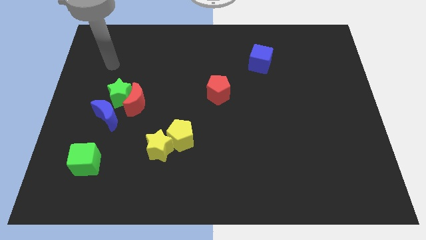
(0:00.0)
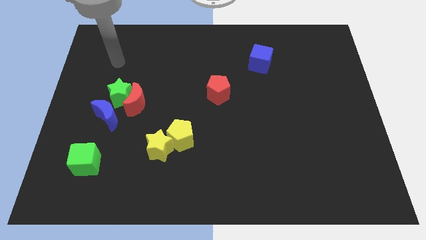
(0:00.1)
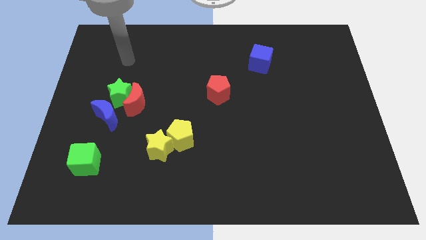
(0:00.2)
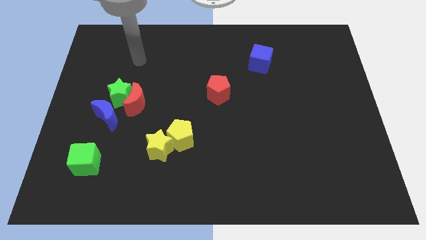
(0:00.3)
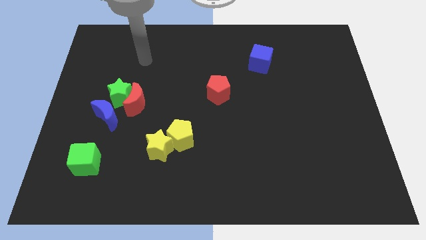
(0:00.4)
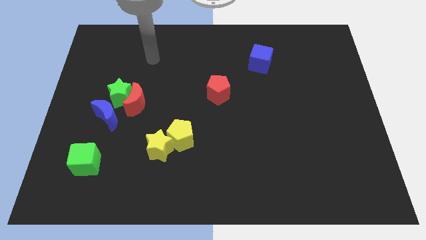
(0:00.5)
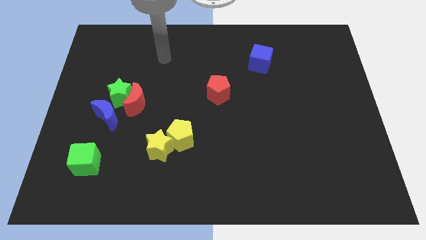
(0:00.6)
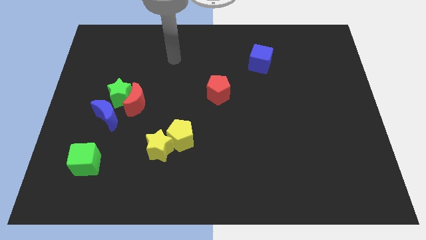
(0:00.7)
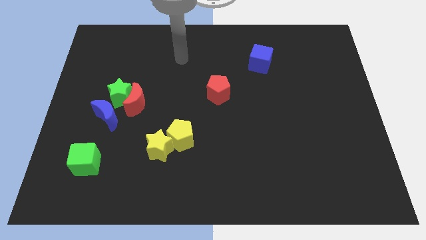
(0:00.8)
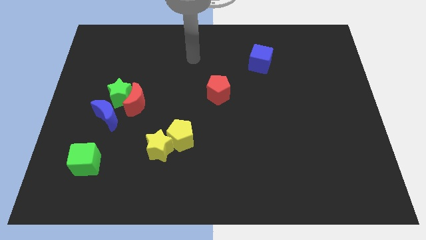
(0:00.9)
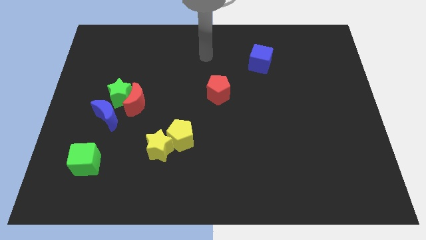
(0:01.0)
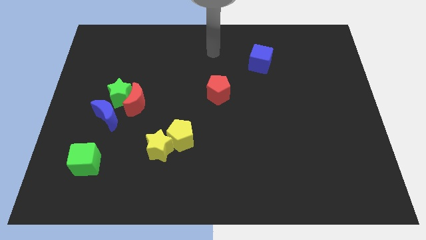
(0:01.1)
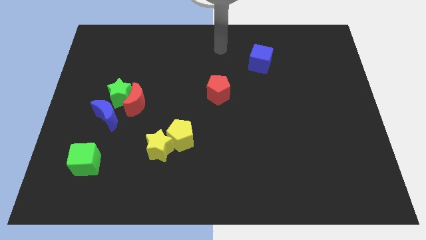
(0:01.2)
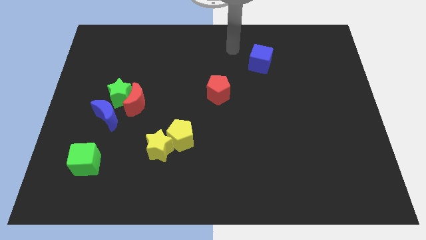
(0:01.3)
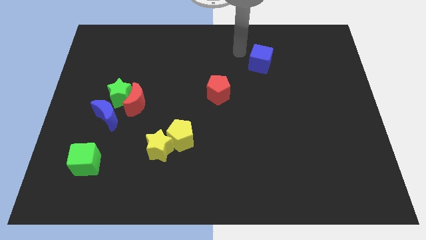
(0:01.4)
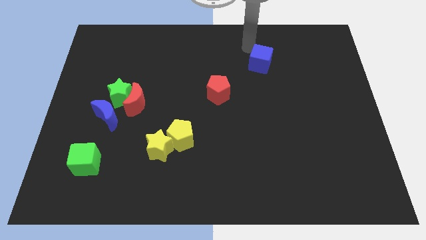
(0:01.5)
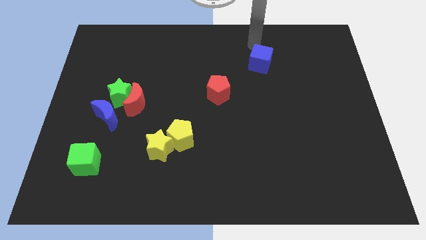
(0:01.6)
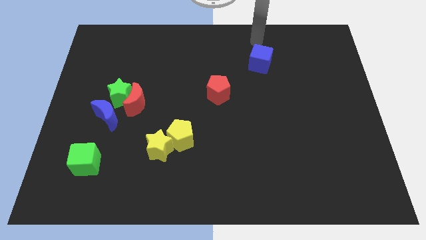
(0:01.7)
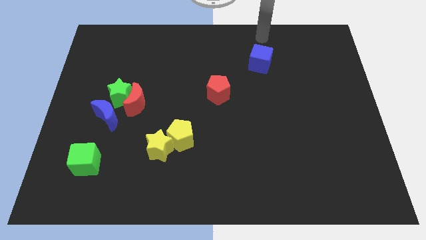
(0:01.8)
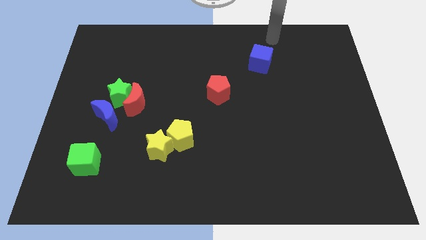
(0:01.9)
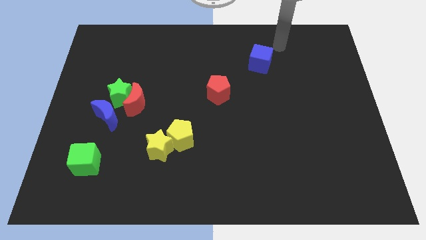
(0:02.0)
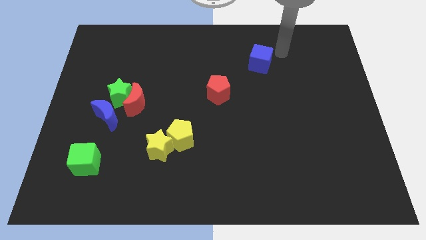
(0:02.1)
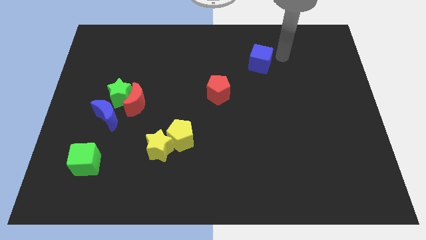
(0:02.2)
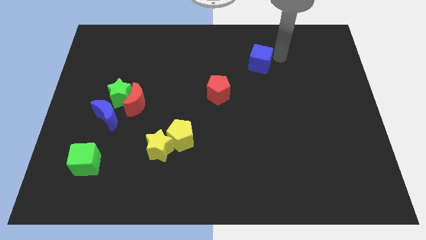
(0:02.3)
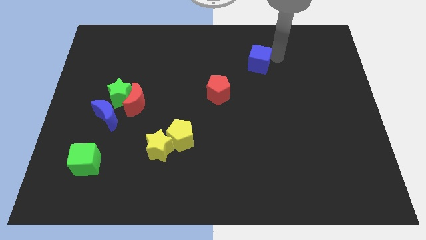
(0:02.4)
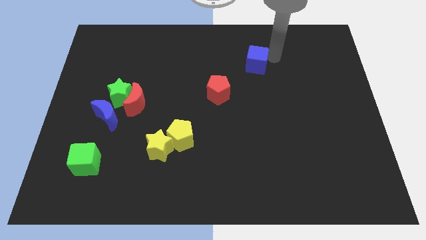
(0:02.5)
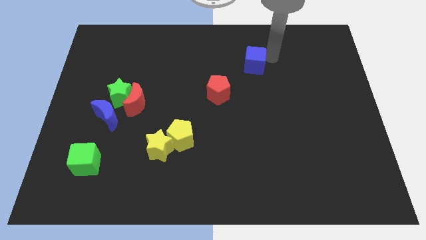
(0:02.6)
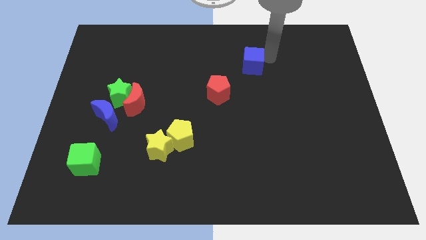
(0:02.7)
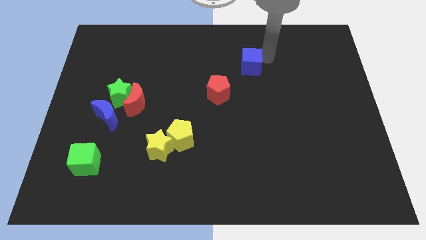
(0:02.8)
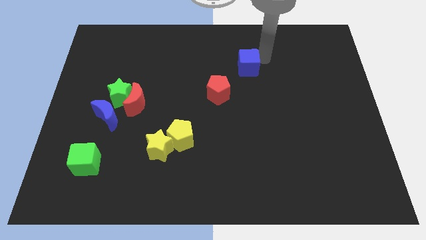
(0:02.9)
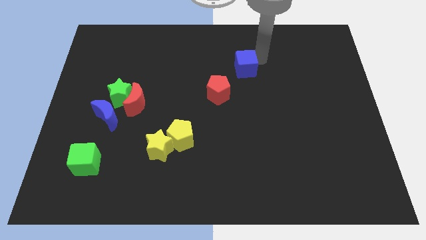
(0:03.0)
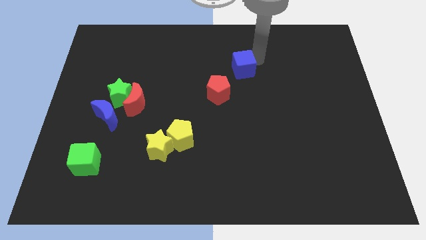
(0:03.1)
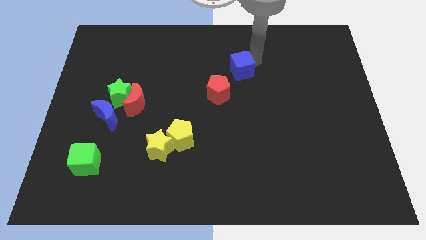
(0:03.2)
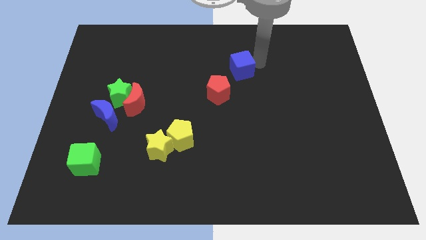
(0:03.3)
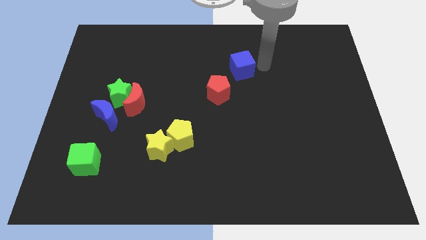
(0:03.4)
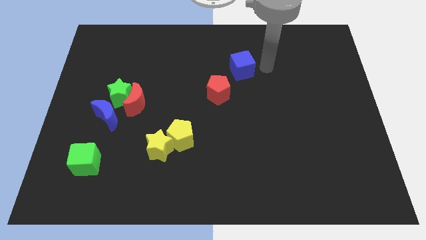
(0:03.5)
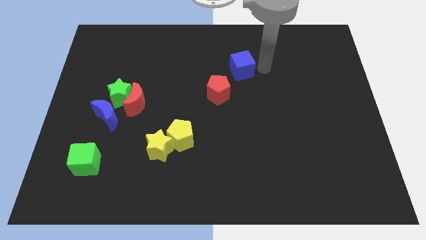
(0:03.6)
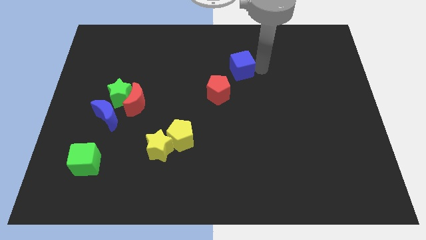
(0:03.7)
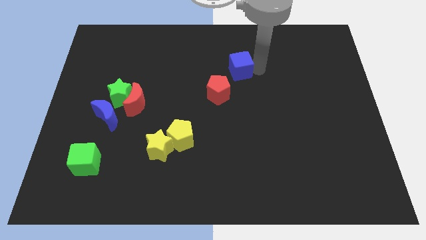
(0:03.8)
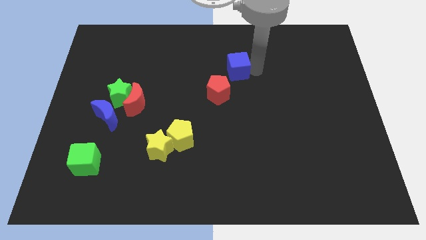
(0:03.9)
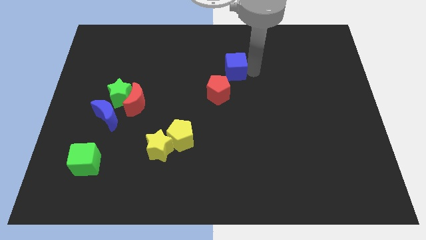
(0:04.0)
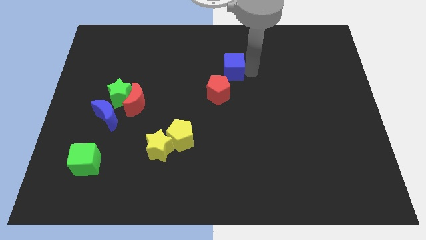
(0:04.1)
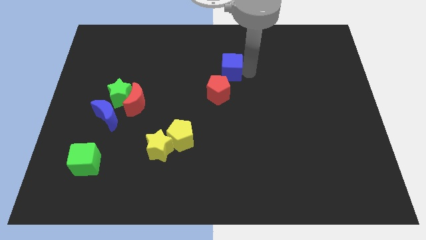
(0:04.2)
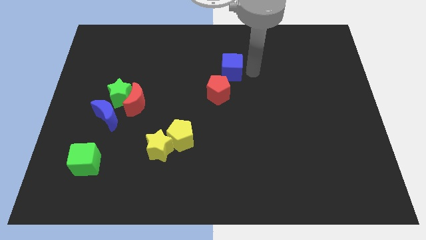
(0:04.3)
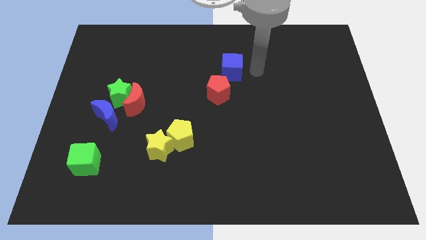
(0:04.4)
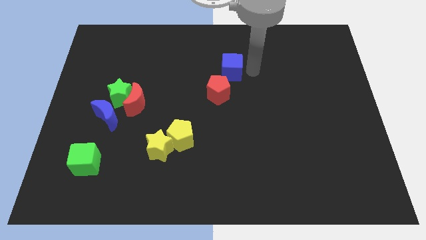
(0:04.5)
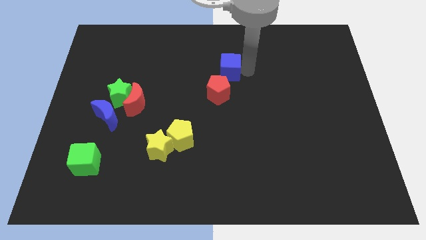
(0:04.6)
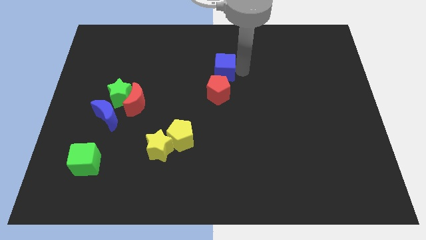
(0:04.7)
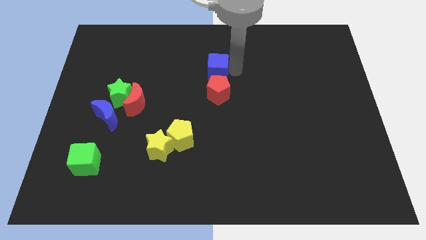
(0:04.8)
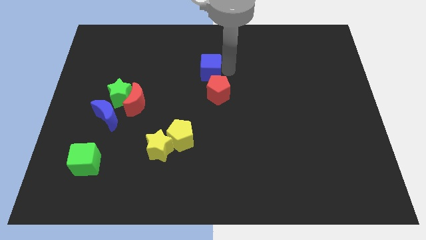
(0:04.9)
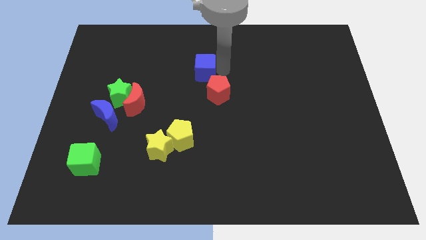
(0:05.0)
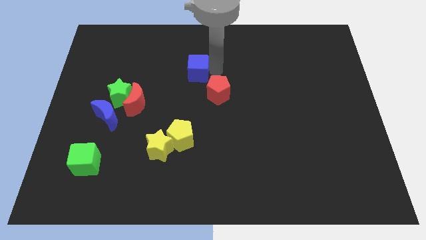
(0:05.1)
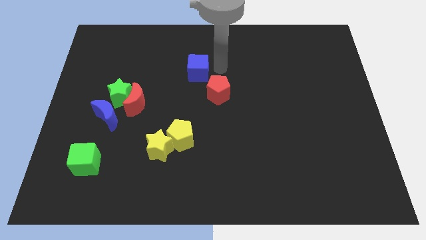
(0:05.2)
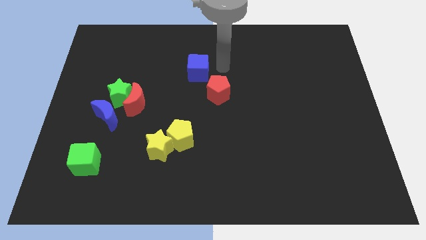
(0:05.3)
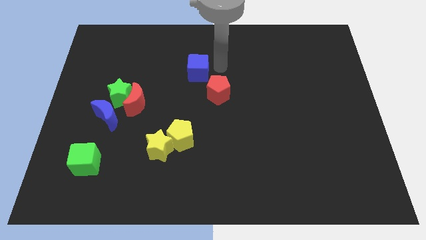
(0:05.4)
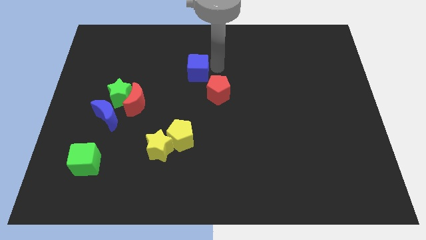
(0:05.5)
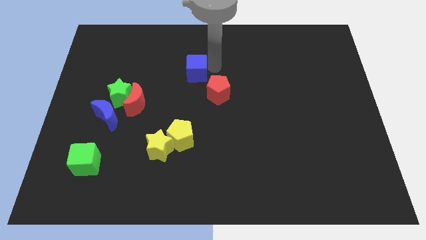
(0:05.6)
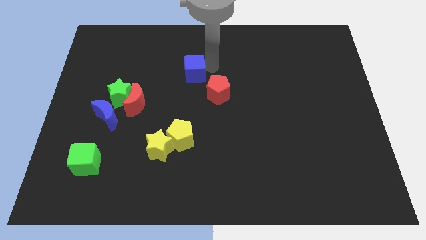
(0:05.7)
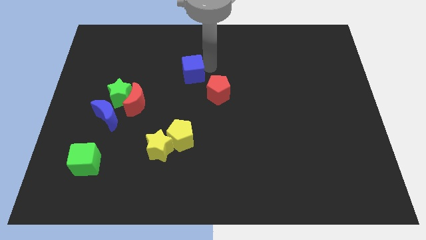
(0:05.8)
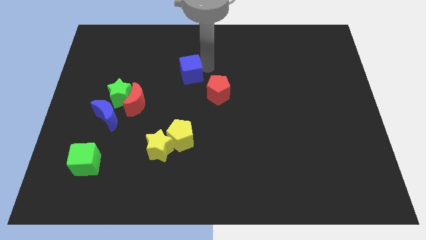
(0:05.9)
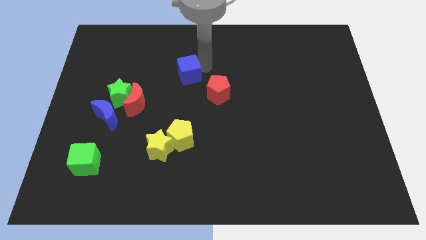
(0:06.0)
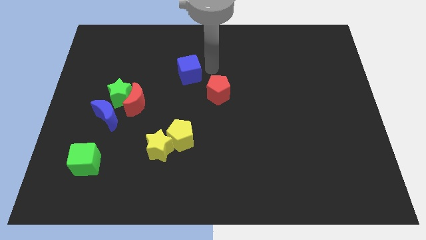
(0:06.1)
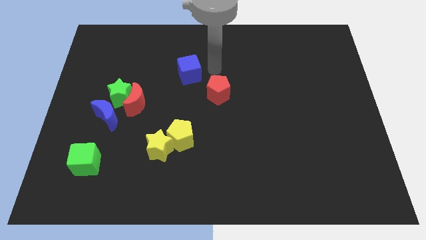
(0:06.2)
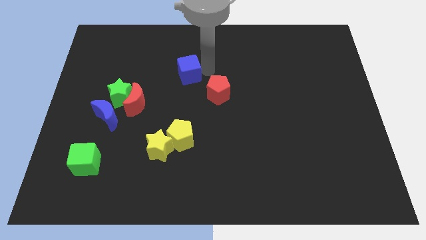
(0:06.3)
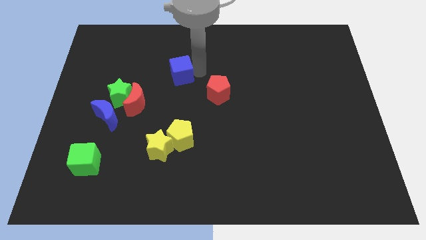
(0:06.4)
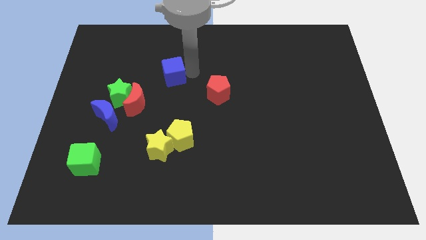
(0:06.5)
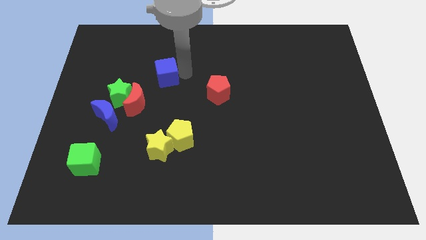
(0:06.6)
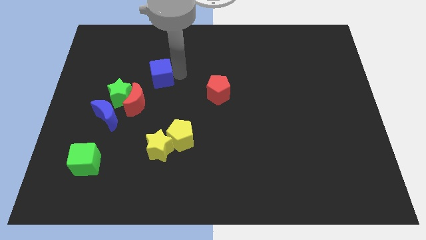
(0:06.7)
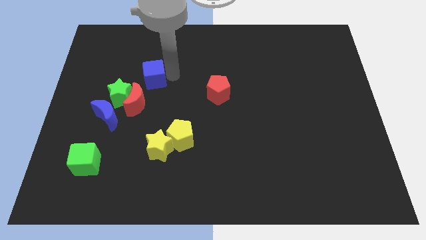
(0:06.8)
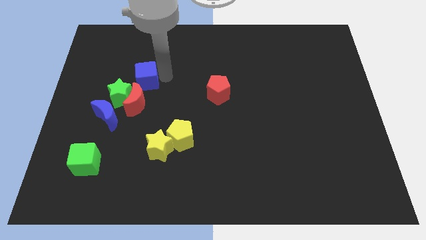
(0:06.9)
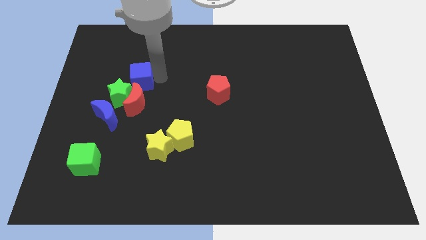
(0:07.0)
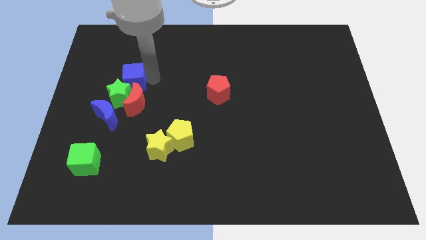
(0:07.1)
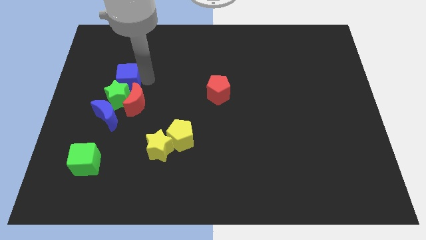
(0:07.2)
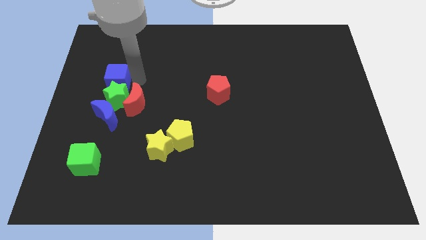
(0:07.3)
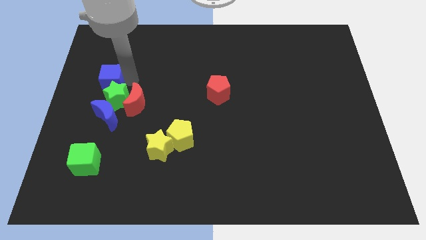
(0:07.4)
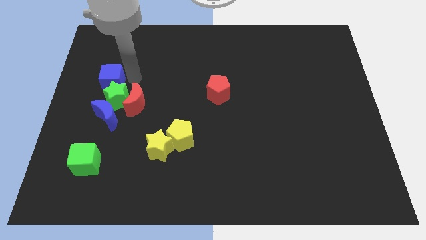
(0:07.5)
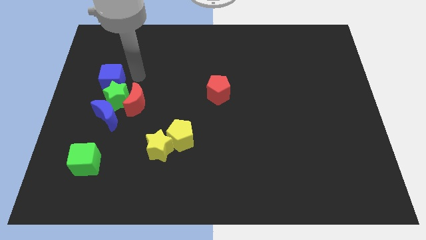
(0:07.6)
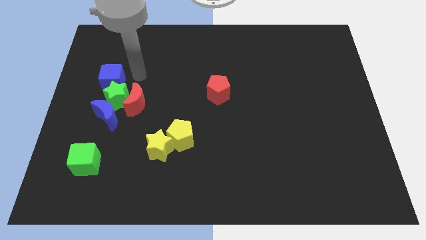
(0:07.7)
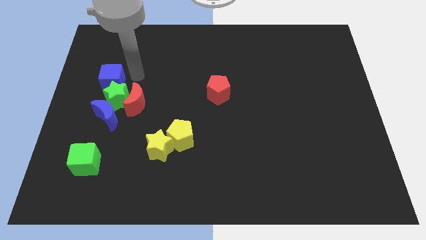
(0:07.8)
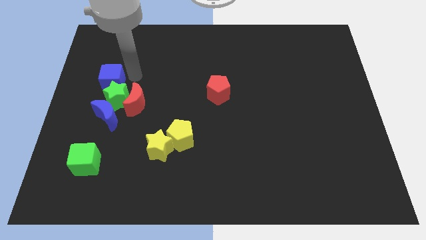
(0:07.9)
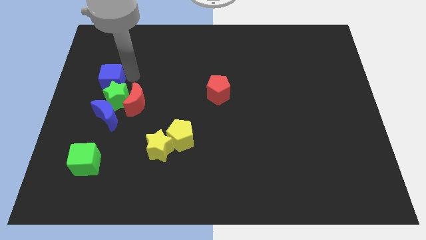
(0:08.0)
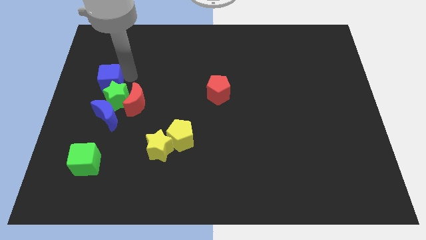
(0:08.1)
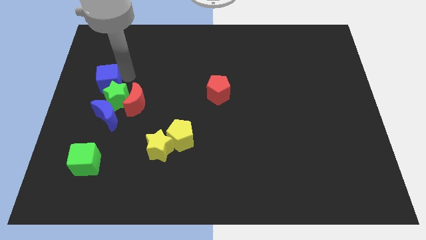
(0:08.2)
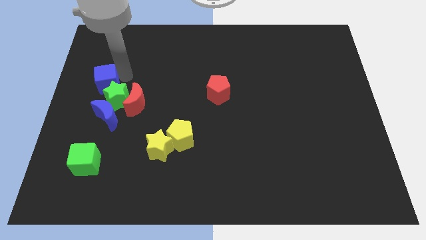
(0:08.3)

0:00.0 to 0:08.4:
put the blue cube to the left side
